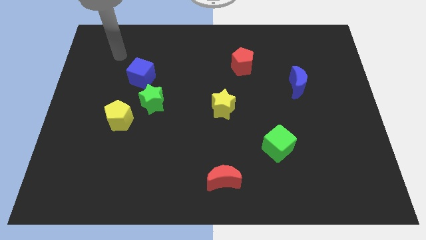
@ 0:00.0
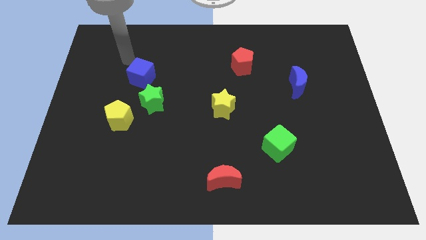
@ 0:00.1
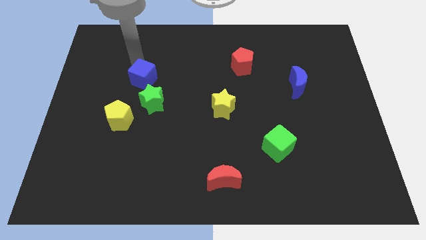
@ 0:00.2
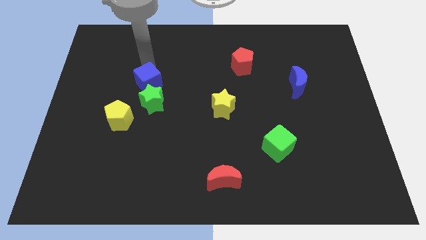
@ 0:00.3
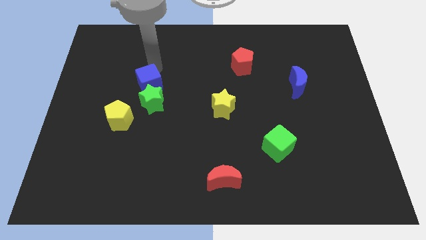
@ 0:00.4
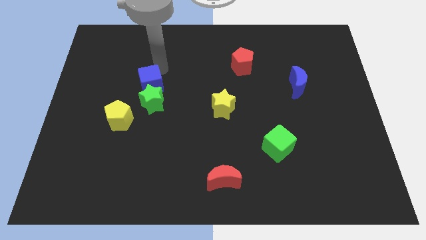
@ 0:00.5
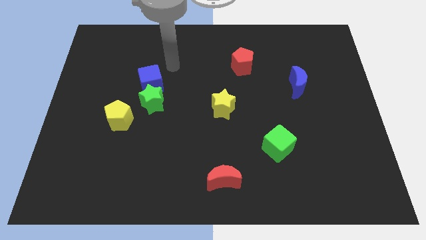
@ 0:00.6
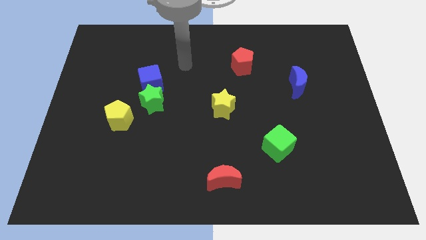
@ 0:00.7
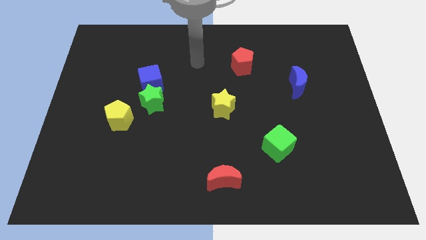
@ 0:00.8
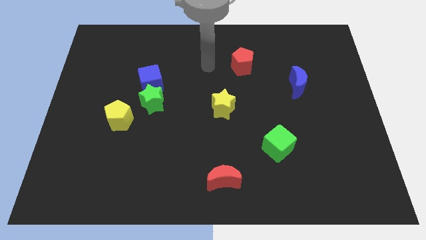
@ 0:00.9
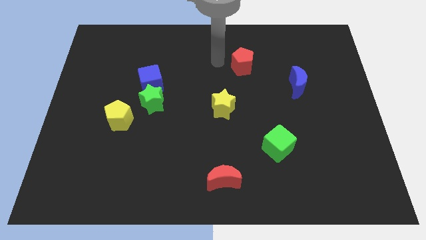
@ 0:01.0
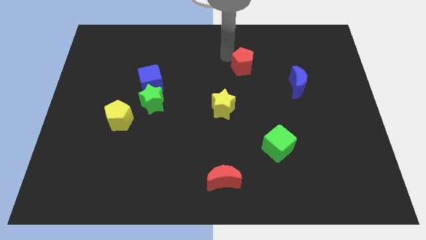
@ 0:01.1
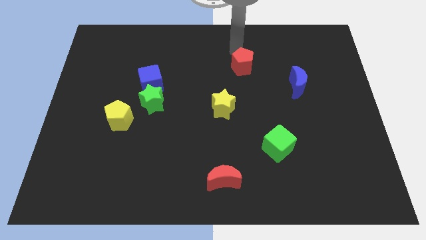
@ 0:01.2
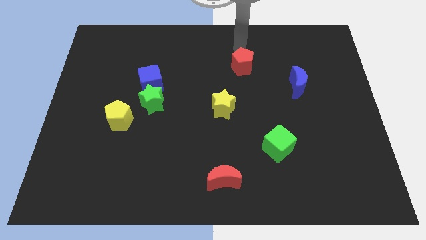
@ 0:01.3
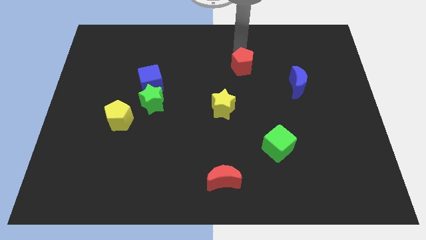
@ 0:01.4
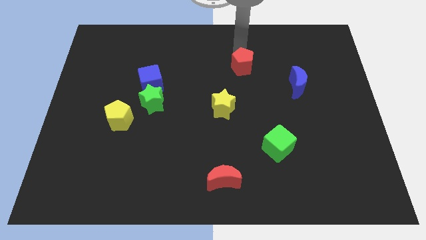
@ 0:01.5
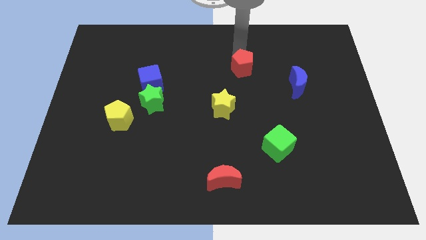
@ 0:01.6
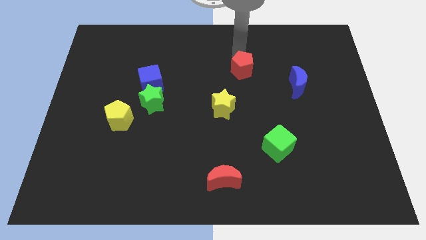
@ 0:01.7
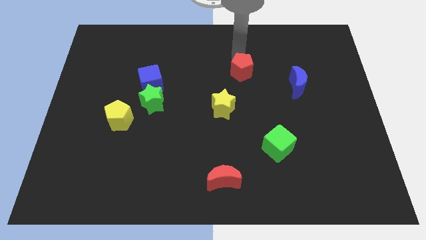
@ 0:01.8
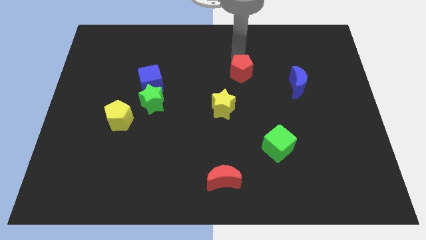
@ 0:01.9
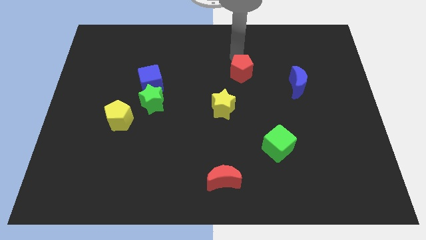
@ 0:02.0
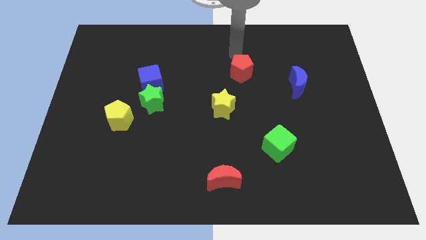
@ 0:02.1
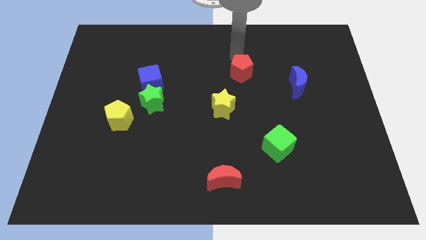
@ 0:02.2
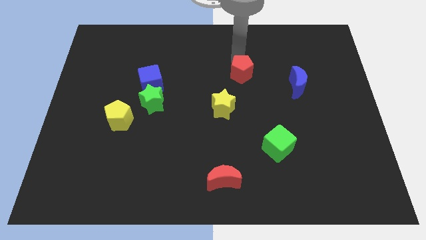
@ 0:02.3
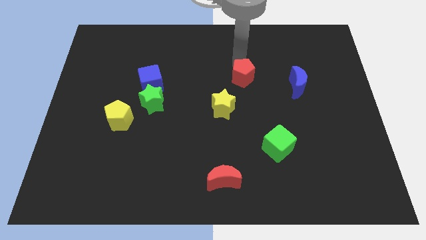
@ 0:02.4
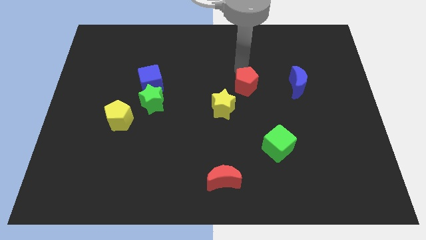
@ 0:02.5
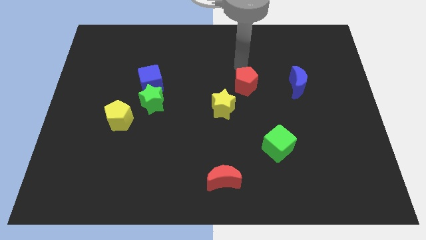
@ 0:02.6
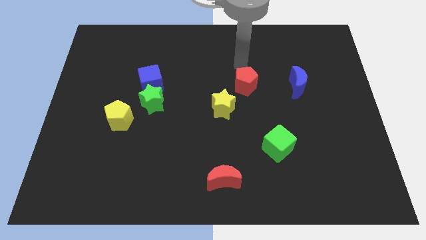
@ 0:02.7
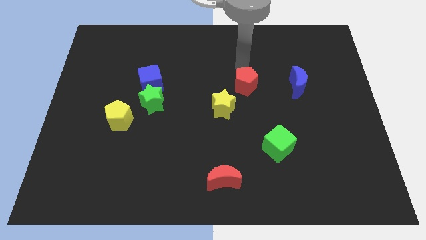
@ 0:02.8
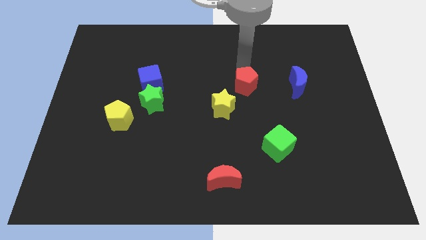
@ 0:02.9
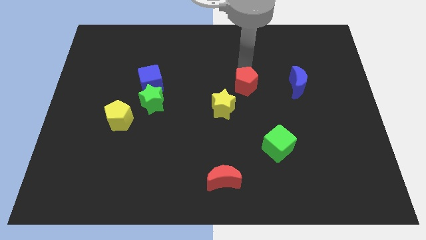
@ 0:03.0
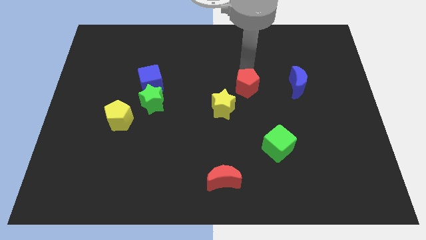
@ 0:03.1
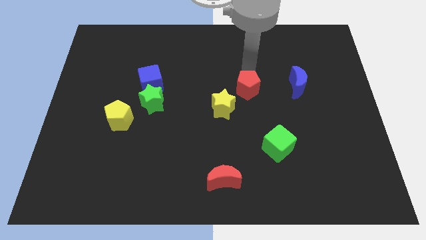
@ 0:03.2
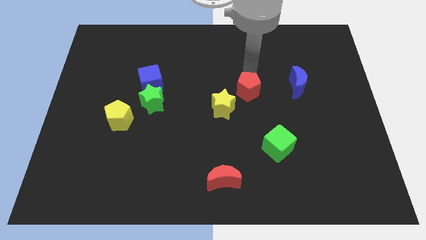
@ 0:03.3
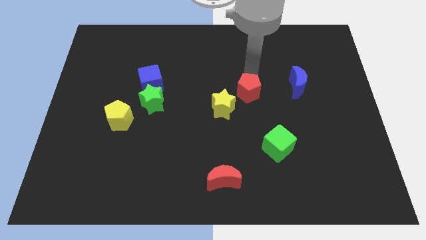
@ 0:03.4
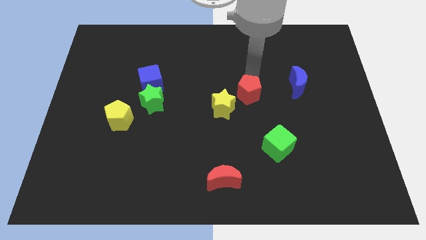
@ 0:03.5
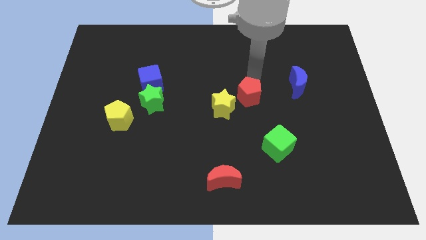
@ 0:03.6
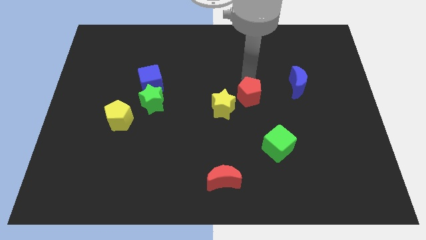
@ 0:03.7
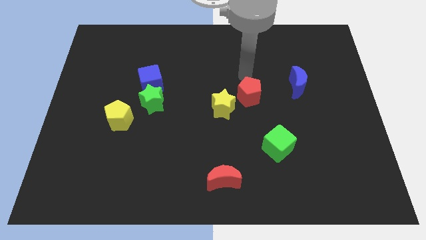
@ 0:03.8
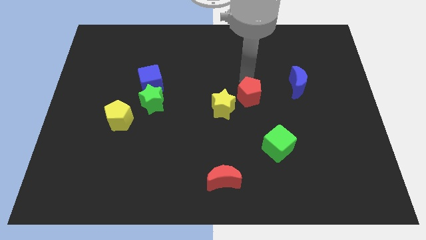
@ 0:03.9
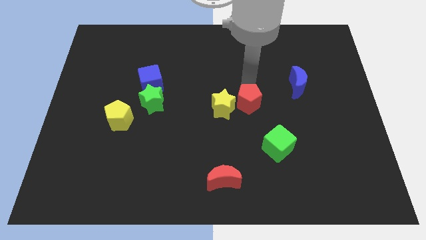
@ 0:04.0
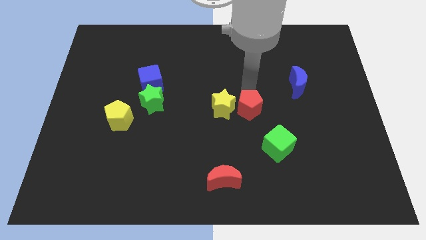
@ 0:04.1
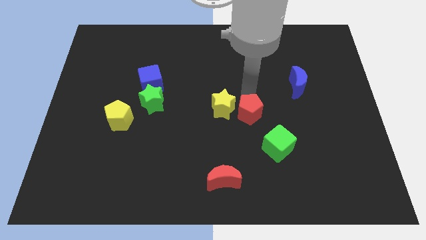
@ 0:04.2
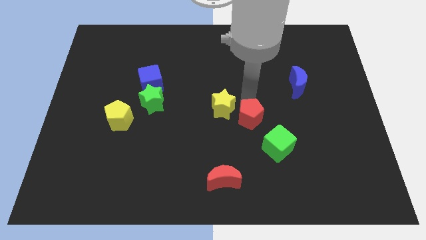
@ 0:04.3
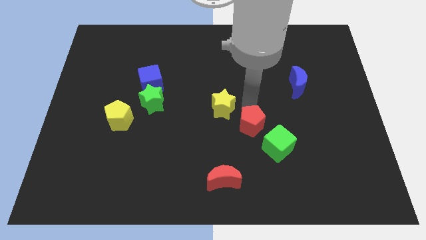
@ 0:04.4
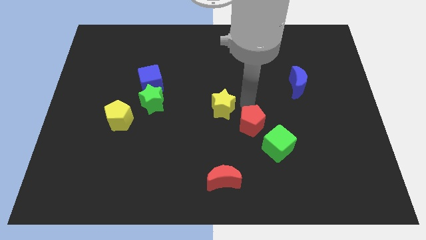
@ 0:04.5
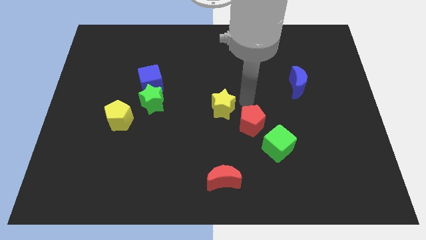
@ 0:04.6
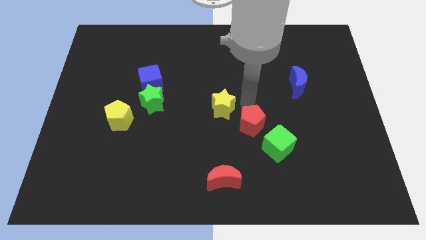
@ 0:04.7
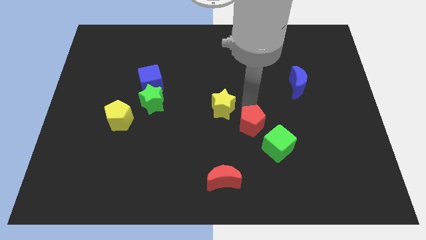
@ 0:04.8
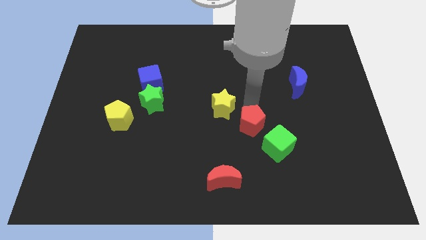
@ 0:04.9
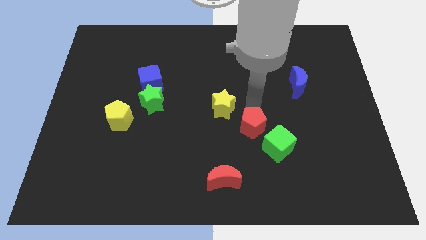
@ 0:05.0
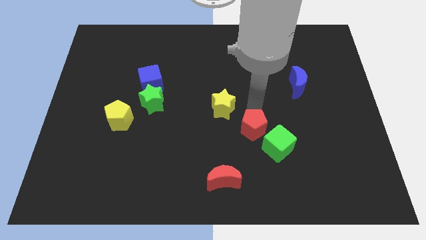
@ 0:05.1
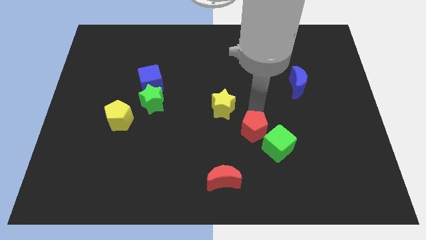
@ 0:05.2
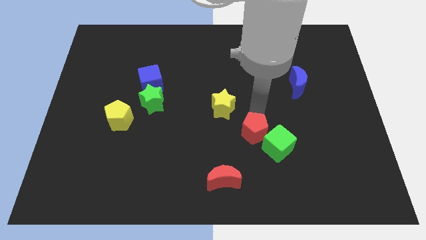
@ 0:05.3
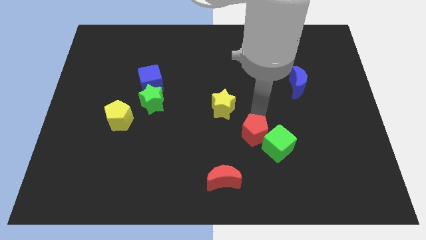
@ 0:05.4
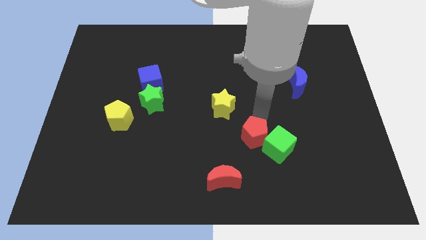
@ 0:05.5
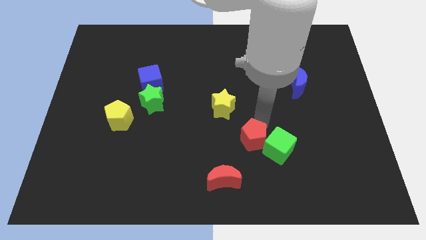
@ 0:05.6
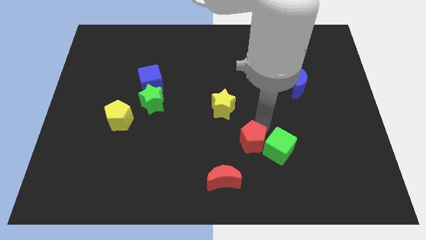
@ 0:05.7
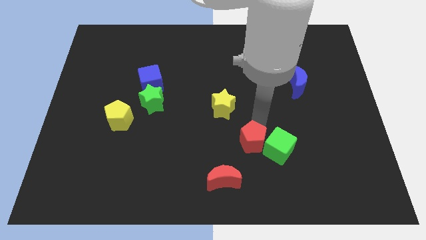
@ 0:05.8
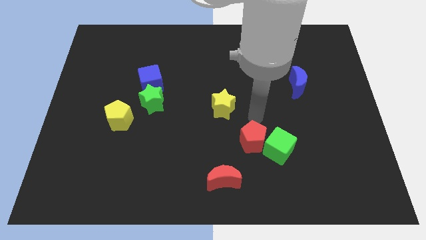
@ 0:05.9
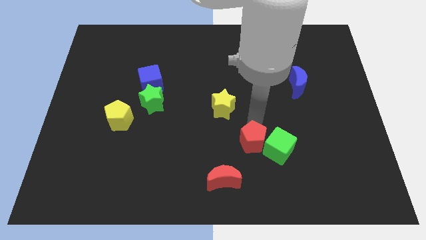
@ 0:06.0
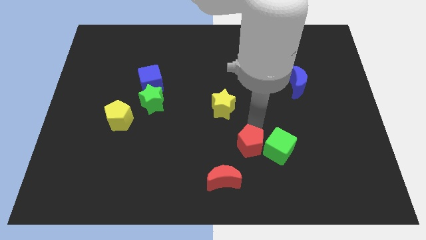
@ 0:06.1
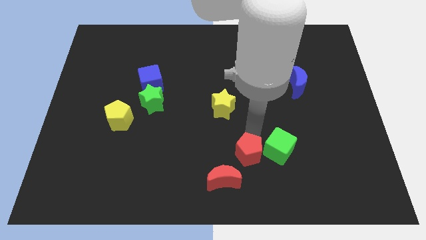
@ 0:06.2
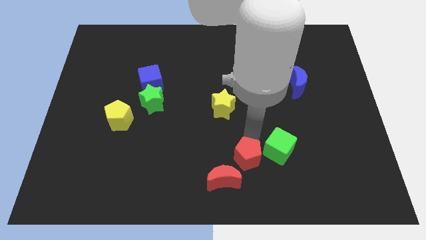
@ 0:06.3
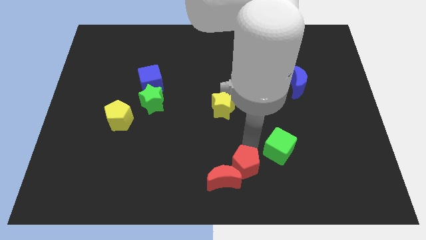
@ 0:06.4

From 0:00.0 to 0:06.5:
push the red pentagon to the bottom
